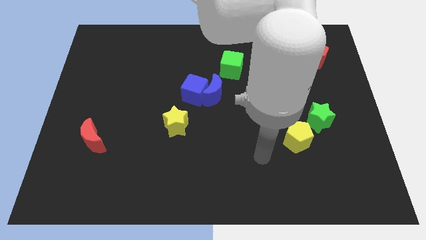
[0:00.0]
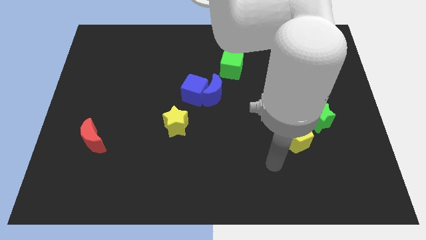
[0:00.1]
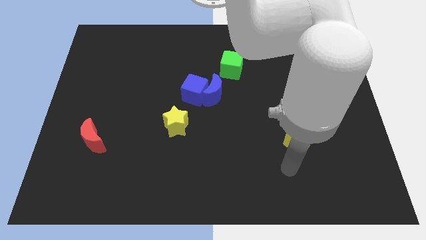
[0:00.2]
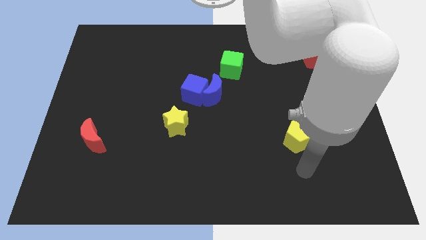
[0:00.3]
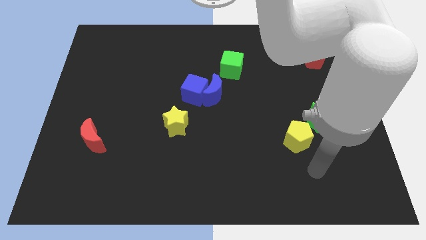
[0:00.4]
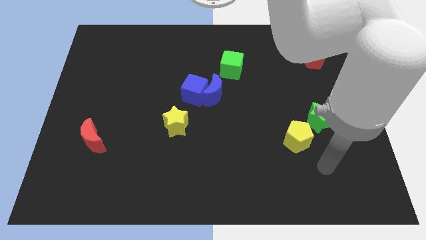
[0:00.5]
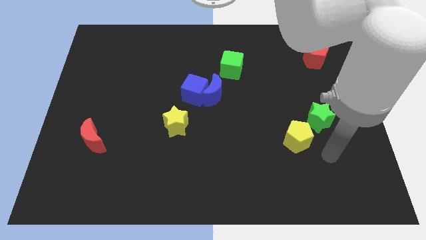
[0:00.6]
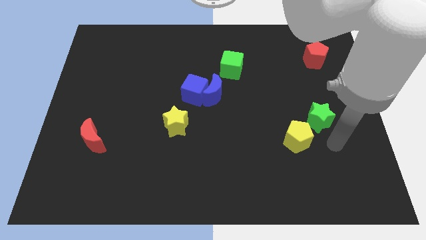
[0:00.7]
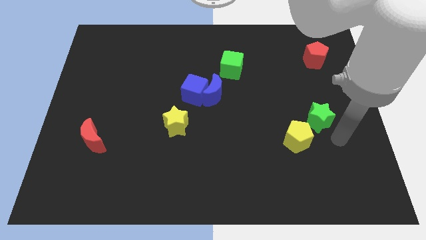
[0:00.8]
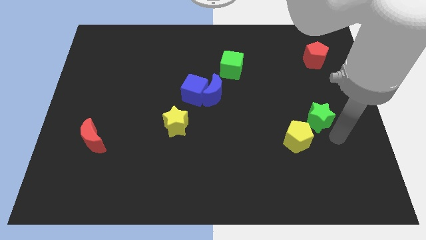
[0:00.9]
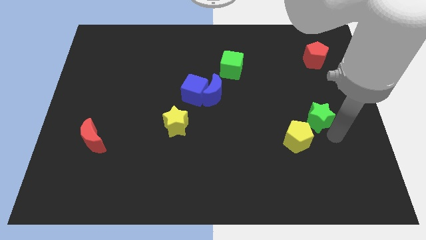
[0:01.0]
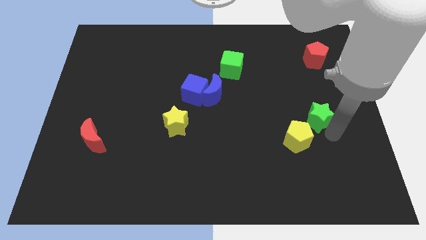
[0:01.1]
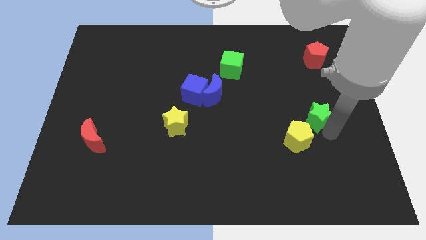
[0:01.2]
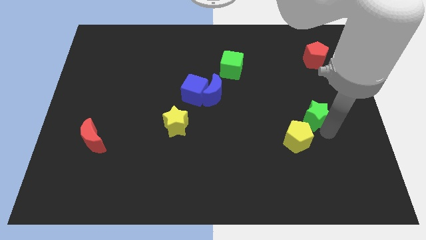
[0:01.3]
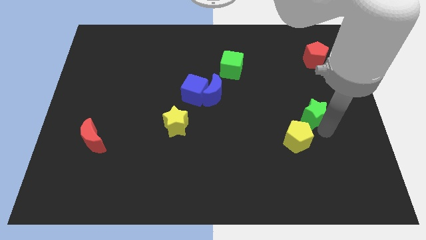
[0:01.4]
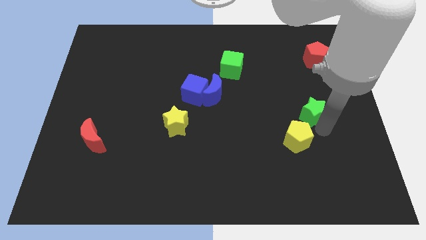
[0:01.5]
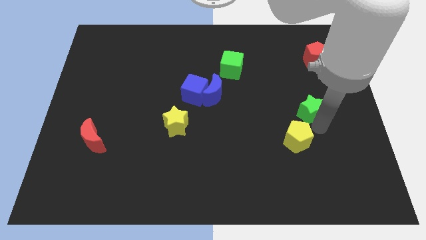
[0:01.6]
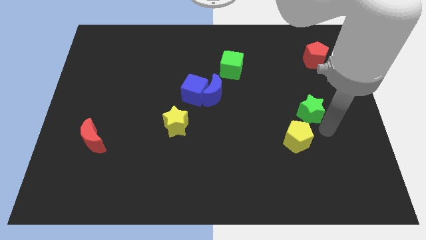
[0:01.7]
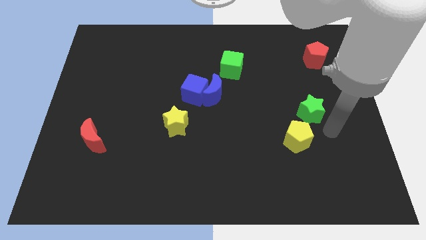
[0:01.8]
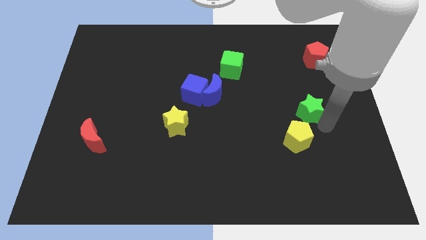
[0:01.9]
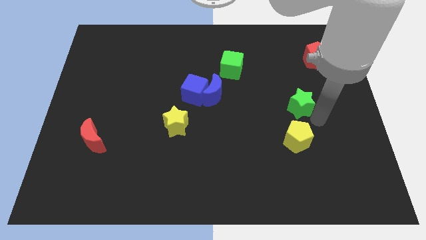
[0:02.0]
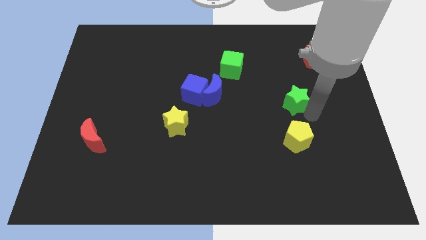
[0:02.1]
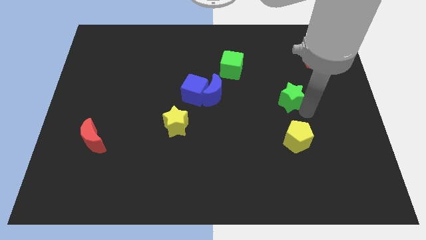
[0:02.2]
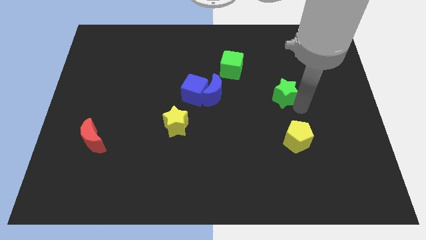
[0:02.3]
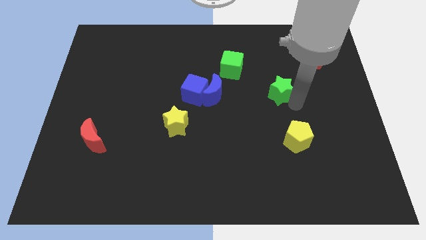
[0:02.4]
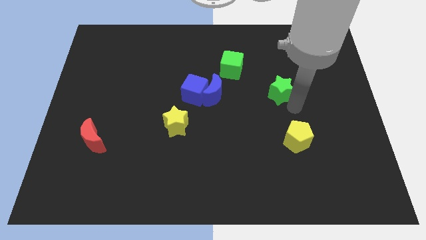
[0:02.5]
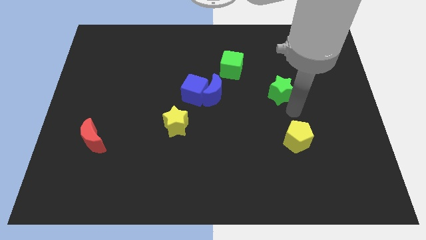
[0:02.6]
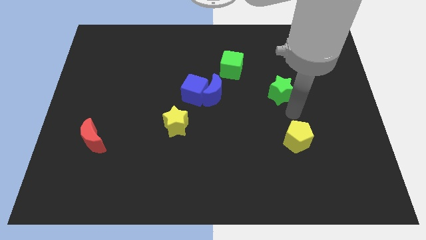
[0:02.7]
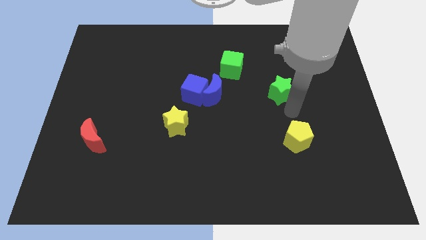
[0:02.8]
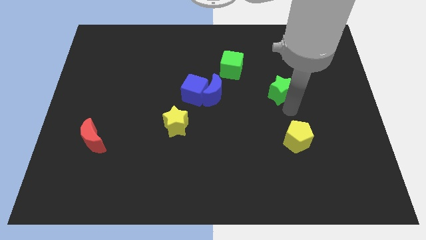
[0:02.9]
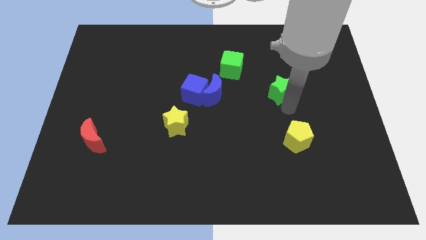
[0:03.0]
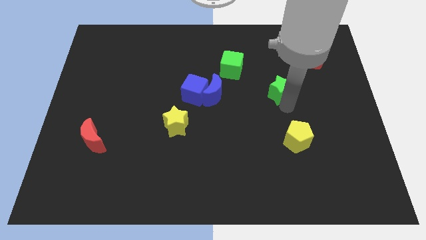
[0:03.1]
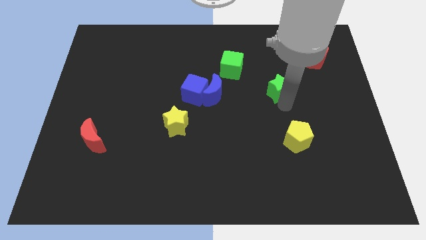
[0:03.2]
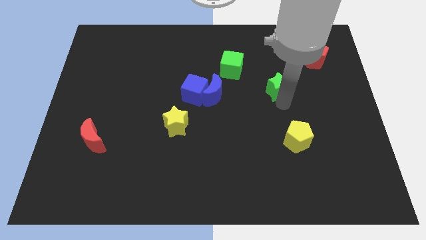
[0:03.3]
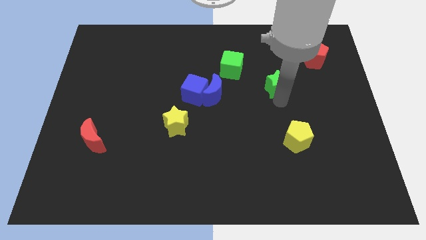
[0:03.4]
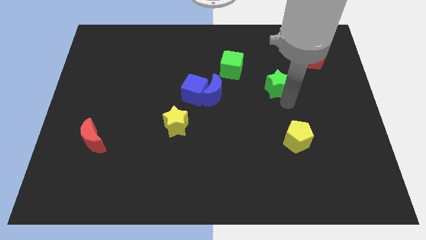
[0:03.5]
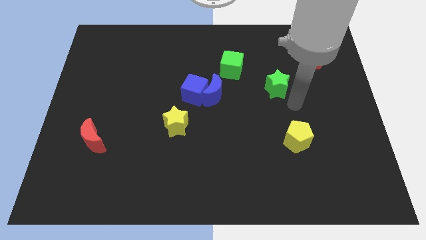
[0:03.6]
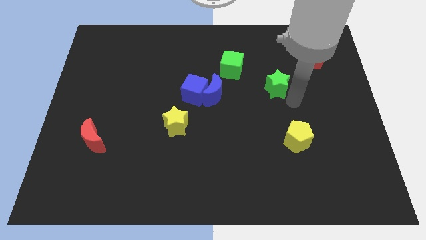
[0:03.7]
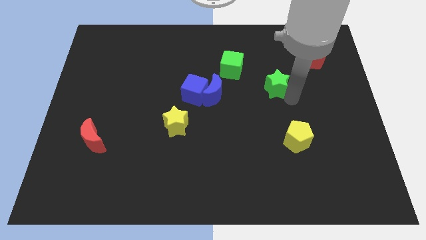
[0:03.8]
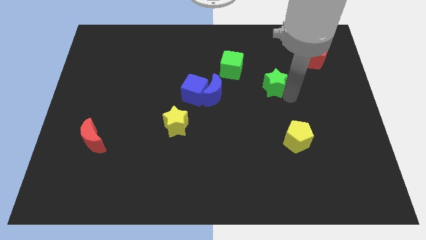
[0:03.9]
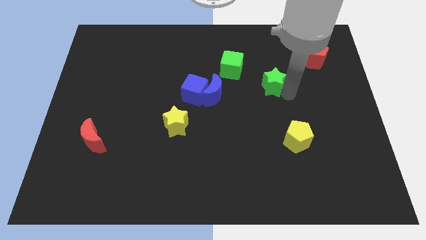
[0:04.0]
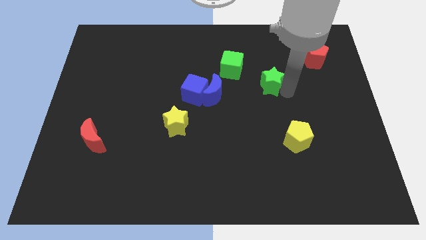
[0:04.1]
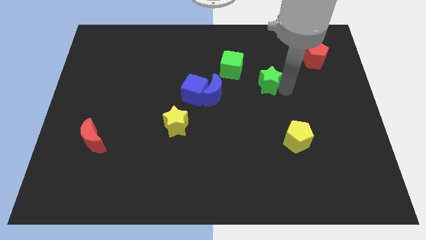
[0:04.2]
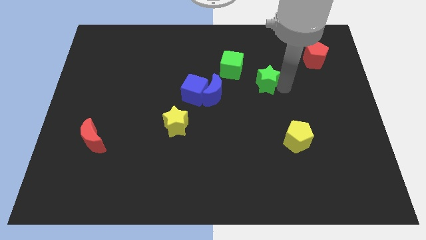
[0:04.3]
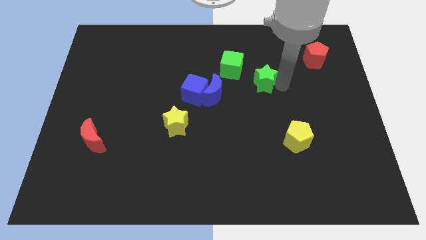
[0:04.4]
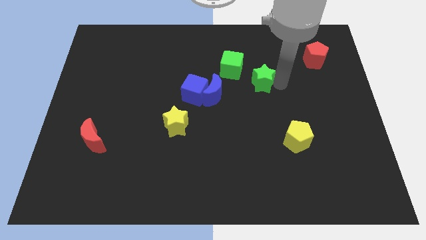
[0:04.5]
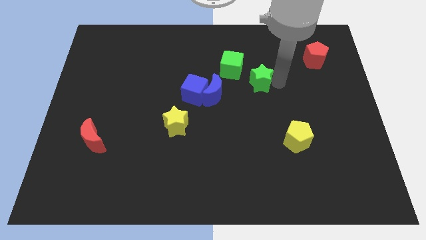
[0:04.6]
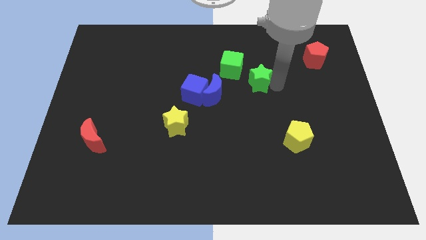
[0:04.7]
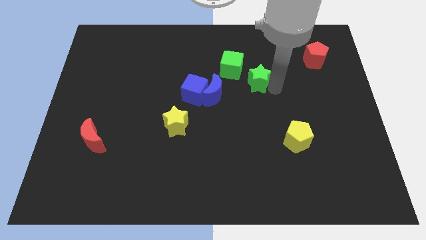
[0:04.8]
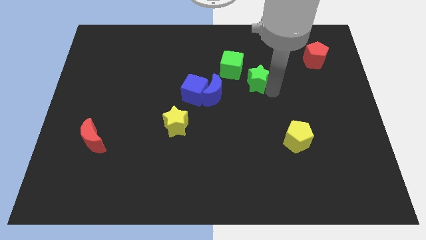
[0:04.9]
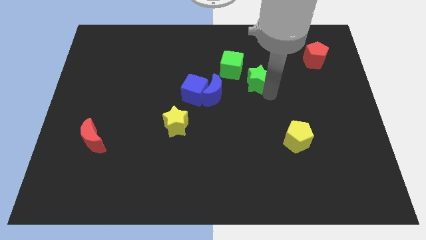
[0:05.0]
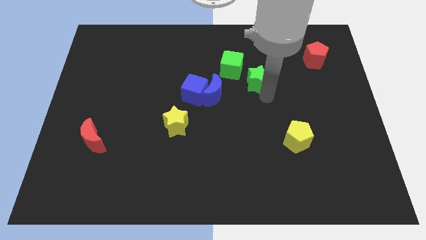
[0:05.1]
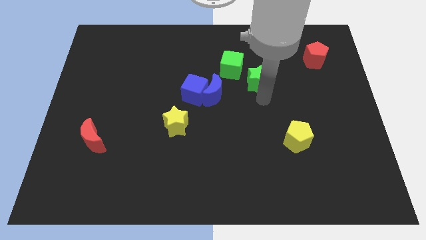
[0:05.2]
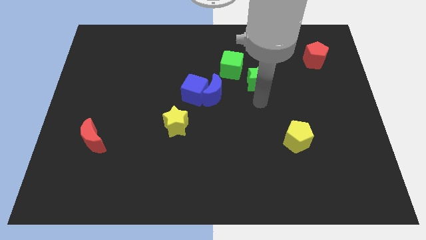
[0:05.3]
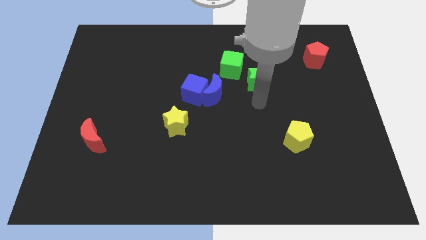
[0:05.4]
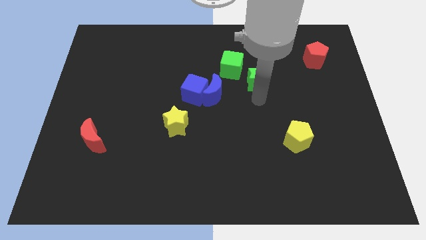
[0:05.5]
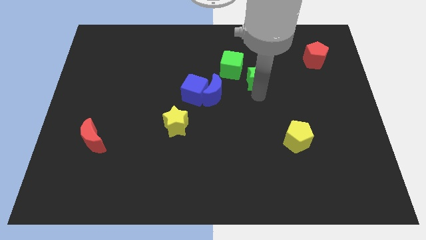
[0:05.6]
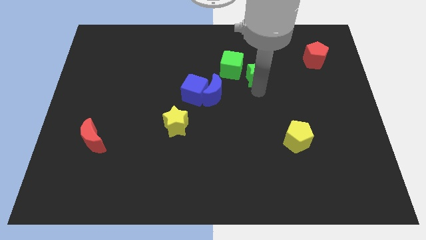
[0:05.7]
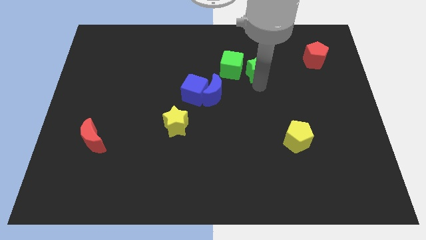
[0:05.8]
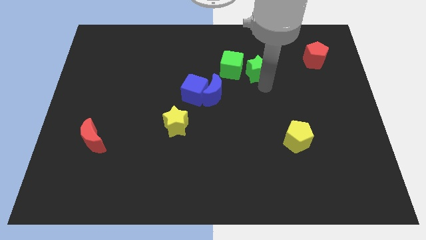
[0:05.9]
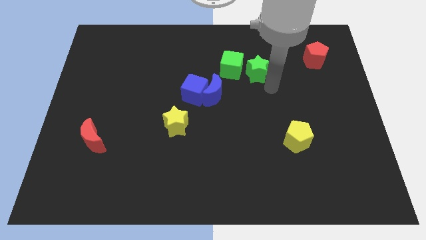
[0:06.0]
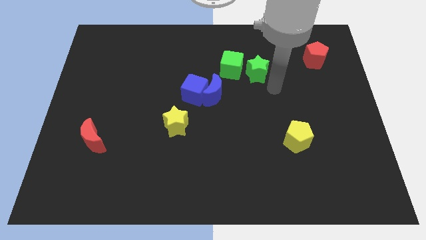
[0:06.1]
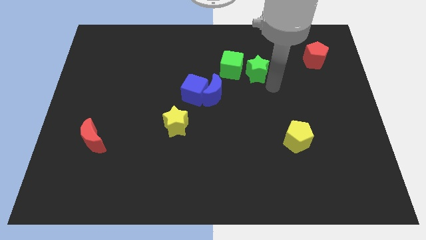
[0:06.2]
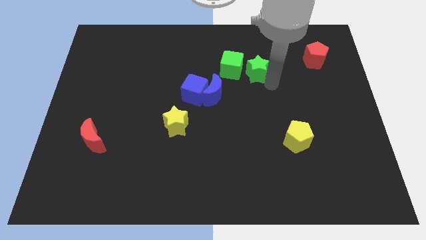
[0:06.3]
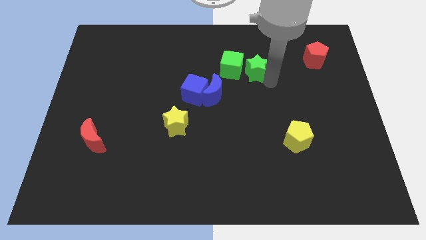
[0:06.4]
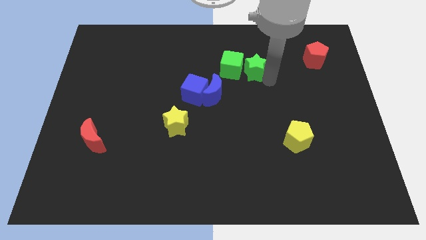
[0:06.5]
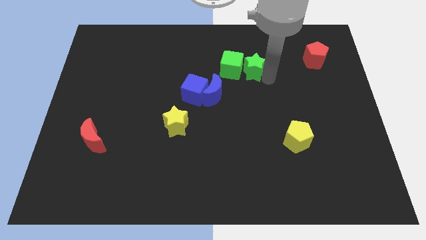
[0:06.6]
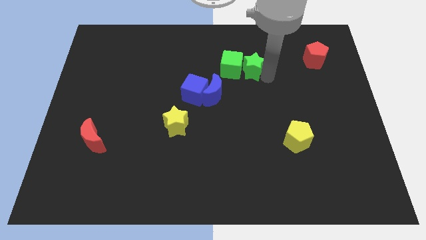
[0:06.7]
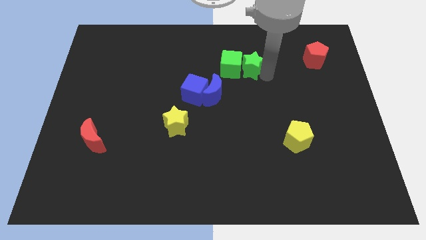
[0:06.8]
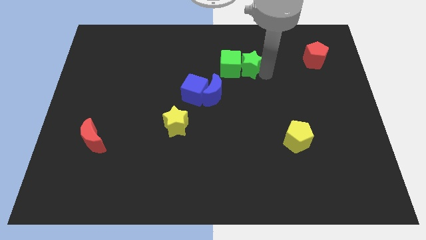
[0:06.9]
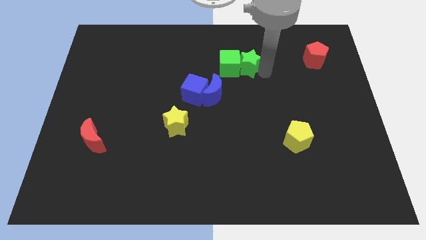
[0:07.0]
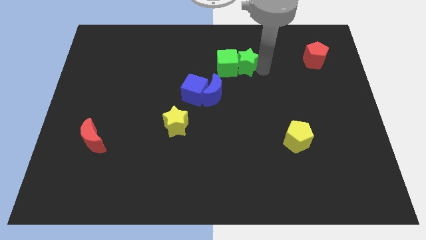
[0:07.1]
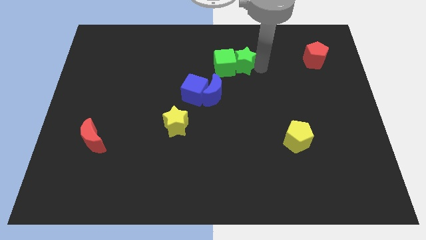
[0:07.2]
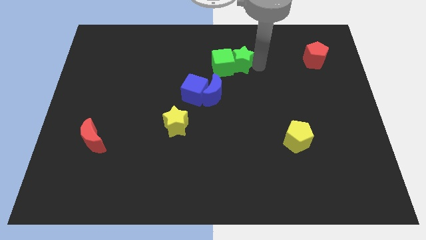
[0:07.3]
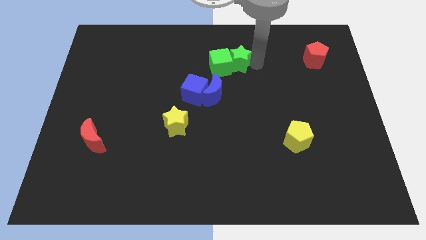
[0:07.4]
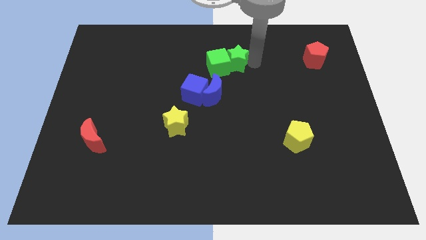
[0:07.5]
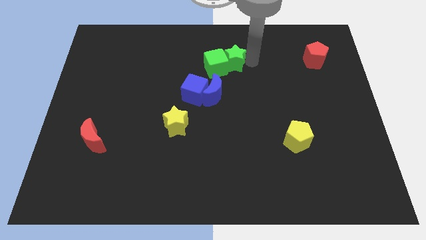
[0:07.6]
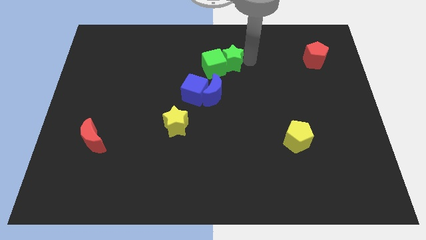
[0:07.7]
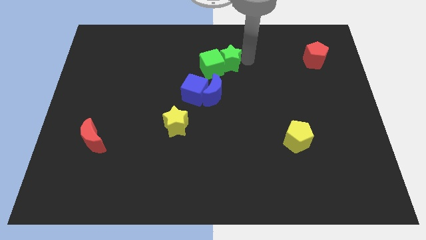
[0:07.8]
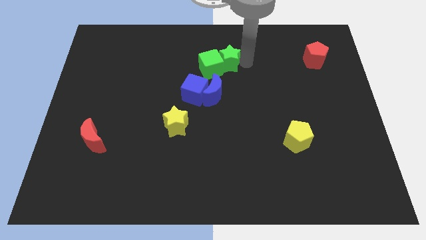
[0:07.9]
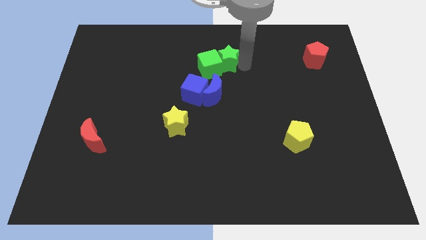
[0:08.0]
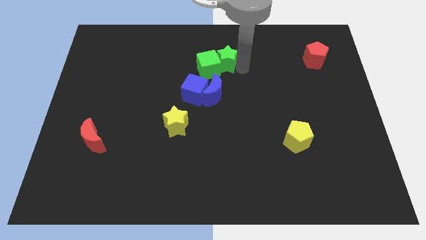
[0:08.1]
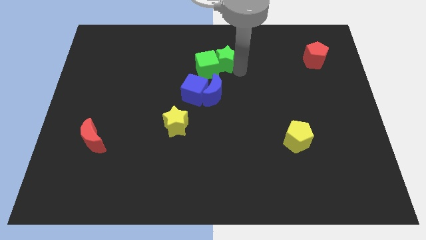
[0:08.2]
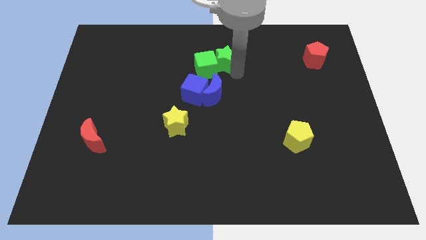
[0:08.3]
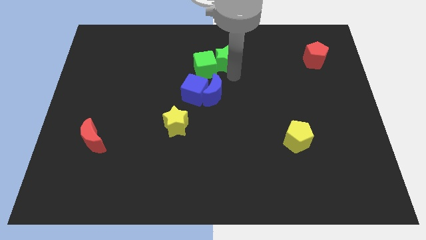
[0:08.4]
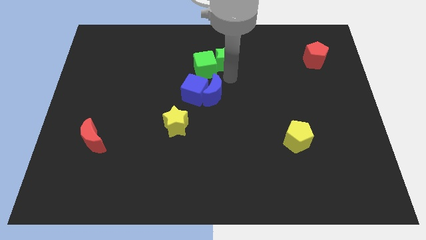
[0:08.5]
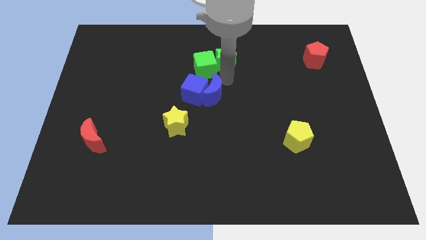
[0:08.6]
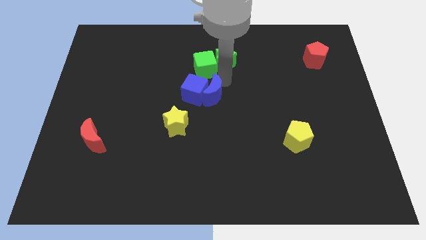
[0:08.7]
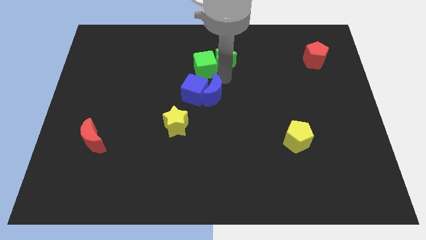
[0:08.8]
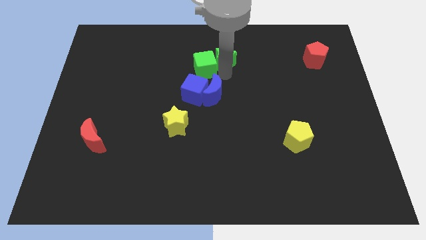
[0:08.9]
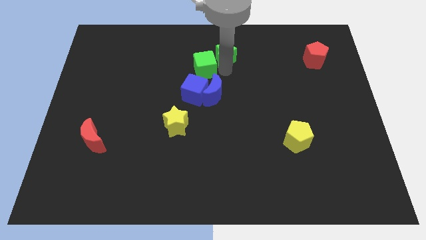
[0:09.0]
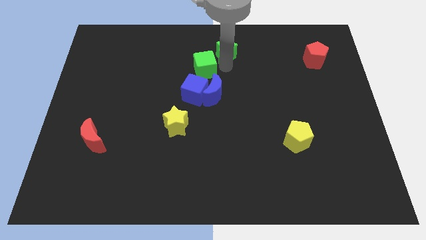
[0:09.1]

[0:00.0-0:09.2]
slide the green star to the top side
